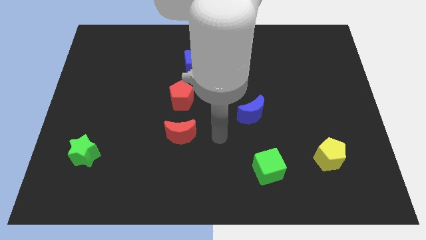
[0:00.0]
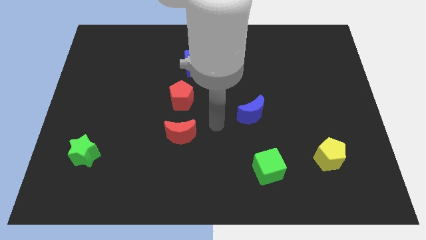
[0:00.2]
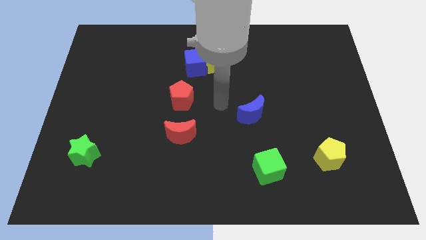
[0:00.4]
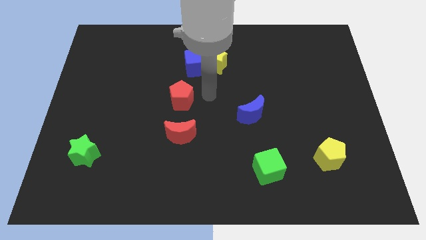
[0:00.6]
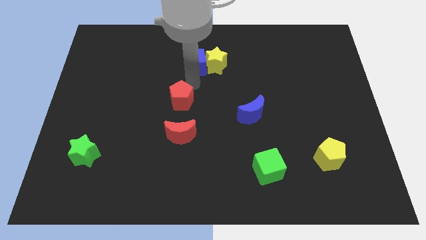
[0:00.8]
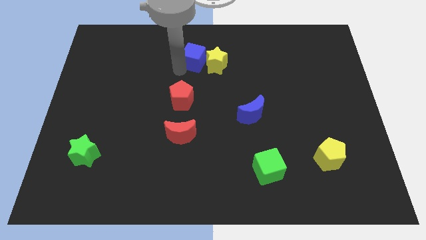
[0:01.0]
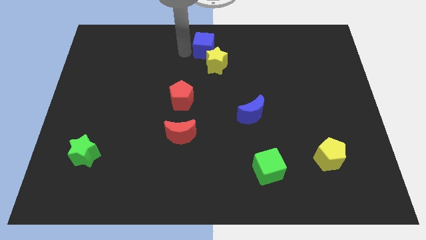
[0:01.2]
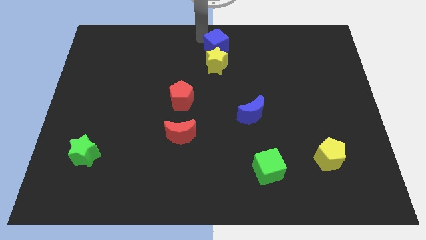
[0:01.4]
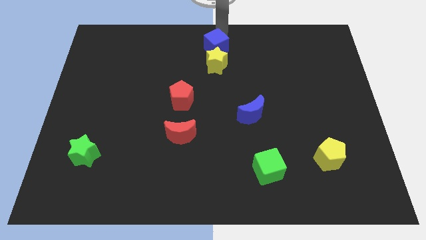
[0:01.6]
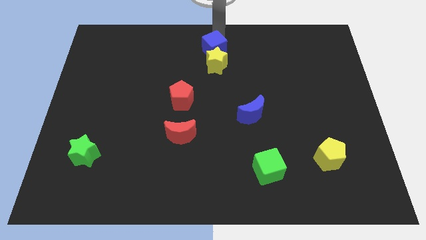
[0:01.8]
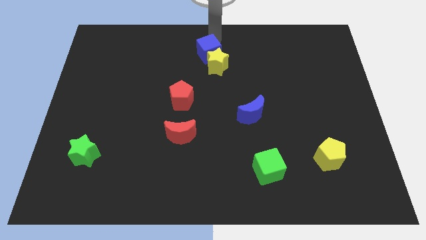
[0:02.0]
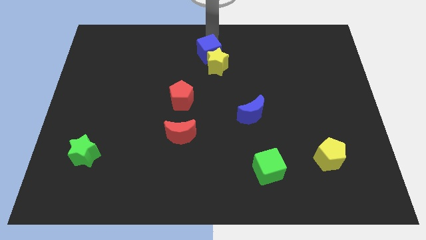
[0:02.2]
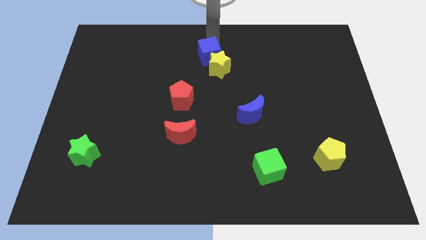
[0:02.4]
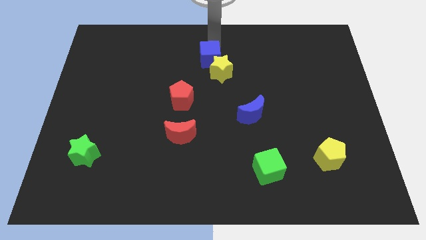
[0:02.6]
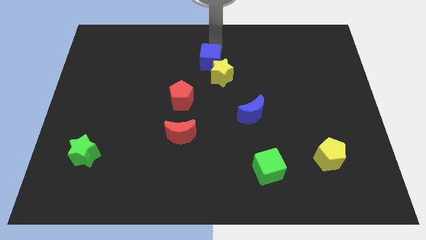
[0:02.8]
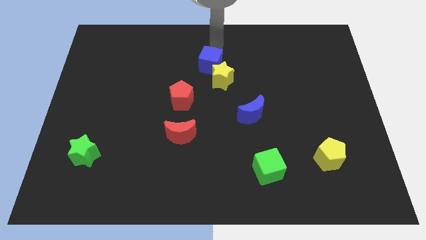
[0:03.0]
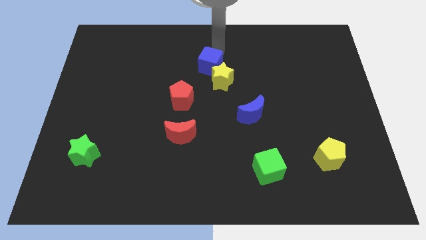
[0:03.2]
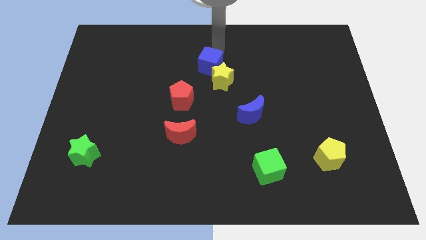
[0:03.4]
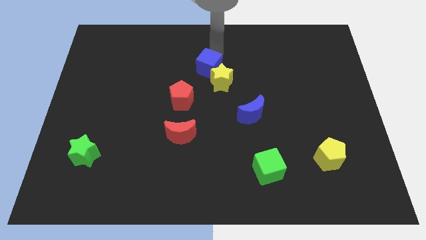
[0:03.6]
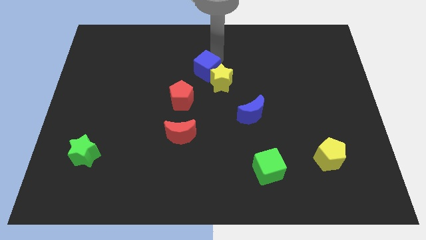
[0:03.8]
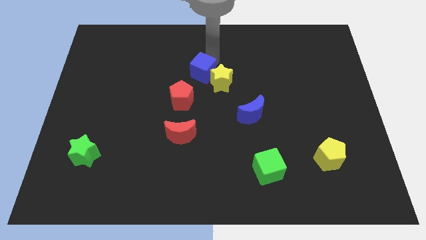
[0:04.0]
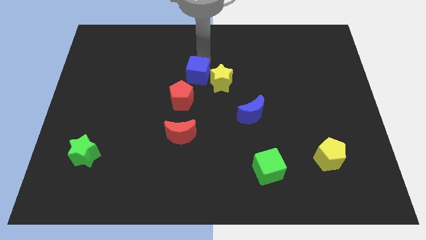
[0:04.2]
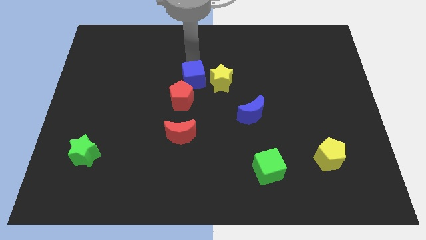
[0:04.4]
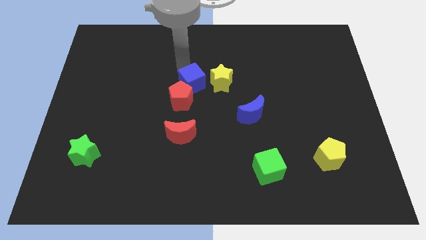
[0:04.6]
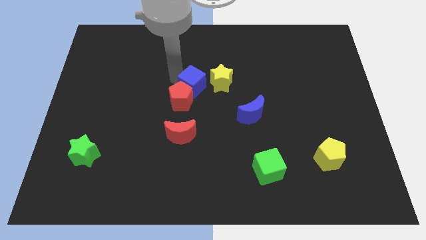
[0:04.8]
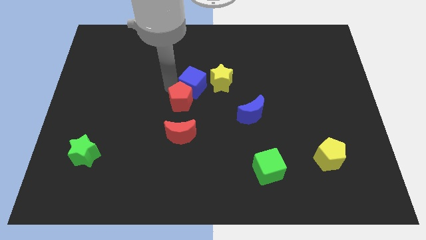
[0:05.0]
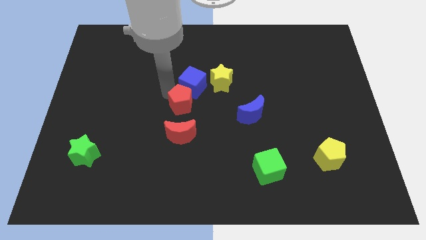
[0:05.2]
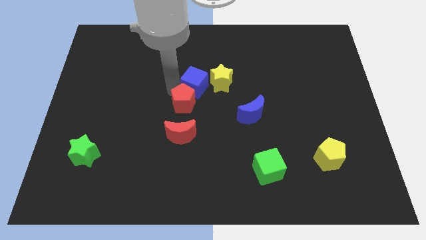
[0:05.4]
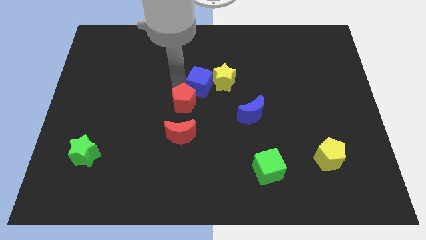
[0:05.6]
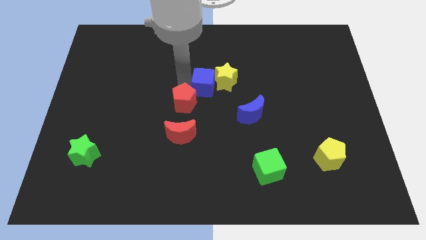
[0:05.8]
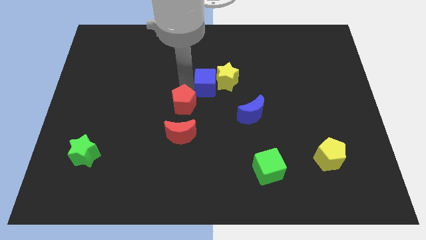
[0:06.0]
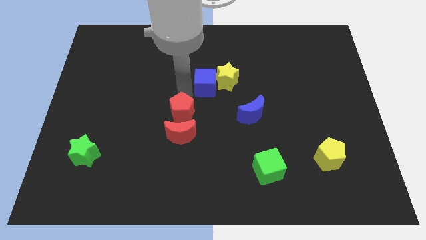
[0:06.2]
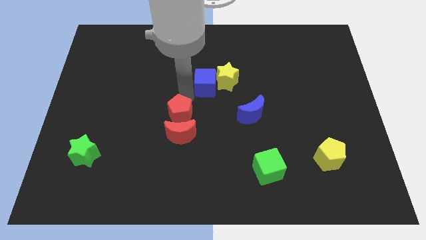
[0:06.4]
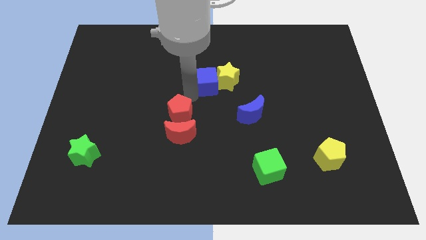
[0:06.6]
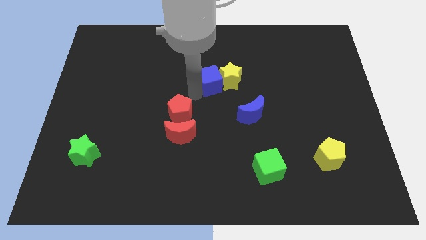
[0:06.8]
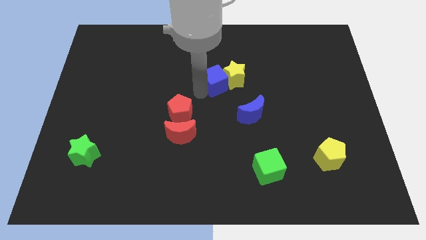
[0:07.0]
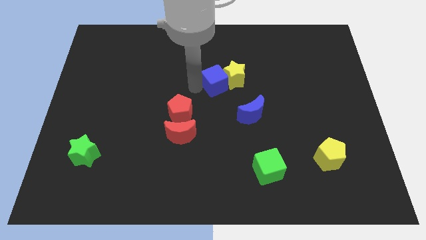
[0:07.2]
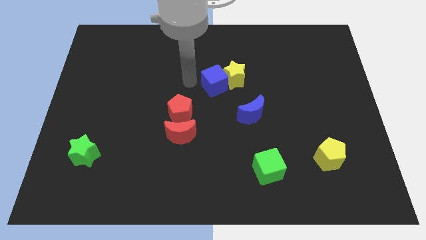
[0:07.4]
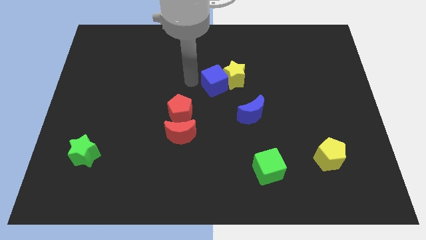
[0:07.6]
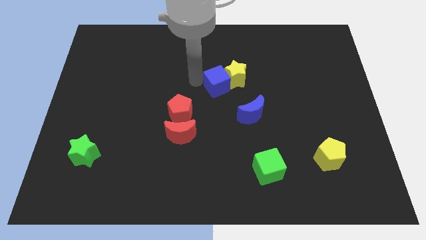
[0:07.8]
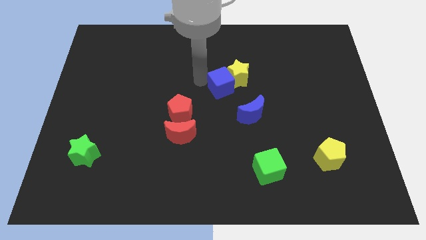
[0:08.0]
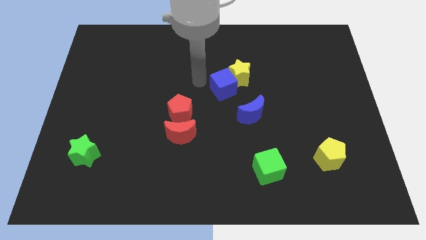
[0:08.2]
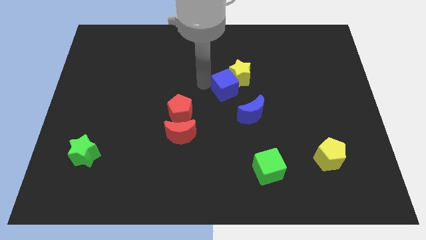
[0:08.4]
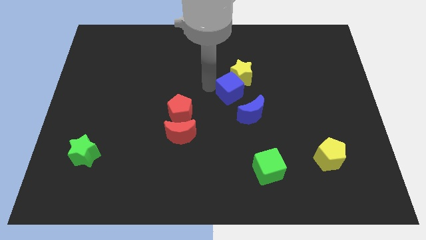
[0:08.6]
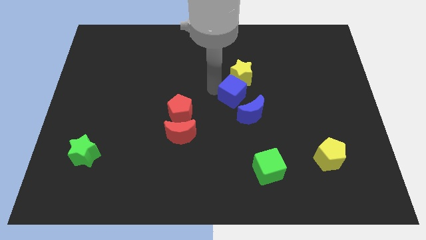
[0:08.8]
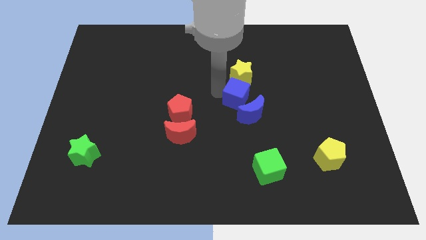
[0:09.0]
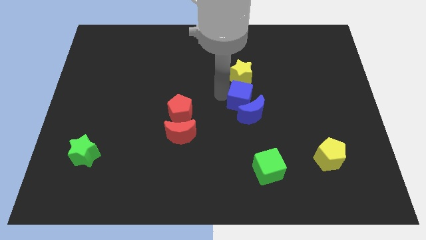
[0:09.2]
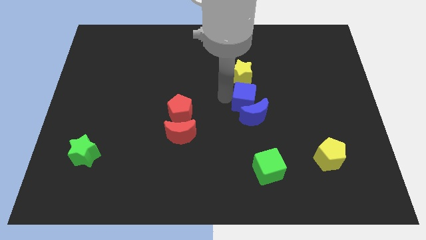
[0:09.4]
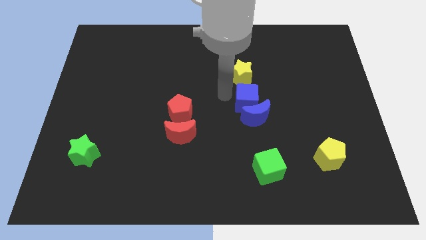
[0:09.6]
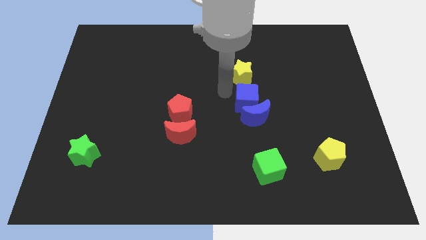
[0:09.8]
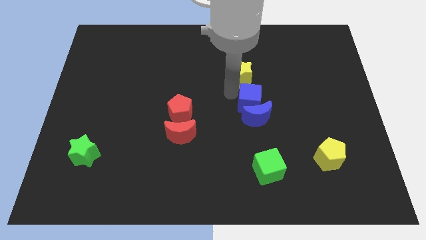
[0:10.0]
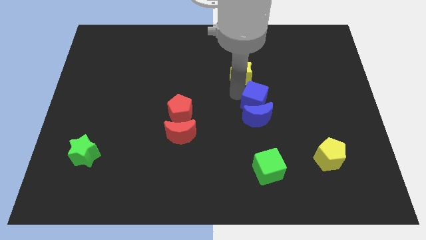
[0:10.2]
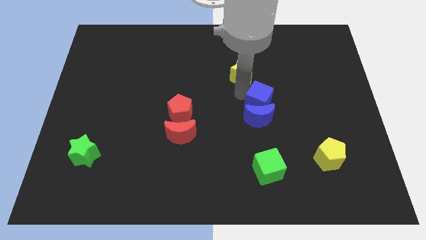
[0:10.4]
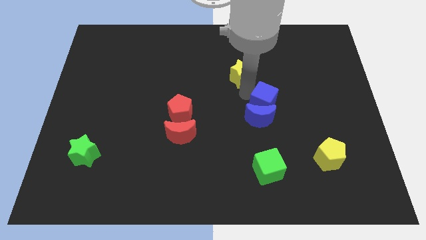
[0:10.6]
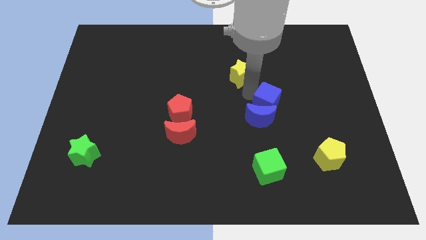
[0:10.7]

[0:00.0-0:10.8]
push the blue cube downwards and then right

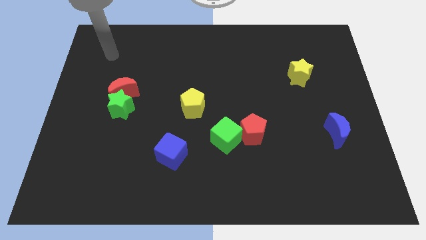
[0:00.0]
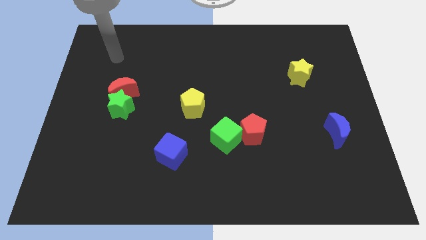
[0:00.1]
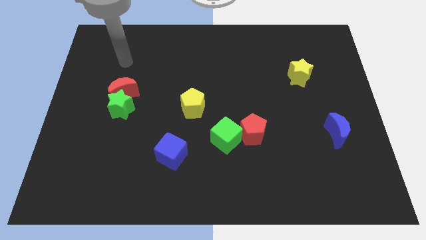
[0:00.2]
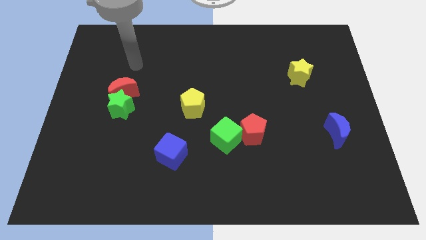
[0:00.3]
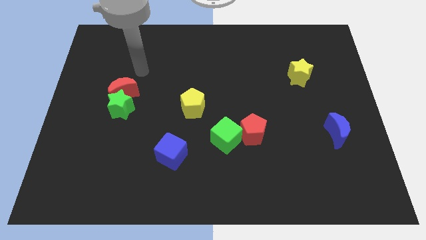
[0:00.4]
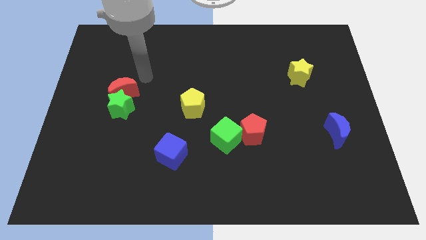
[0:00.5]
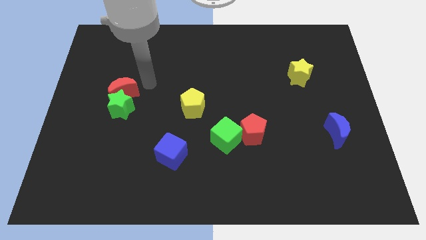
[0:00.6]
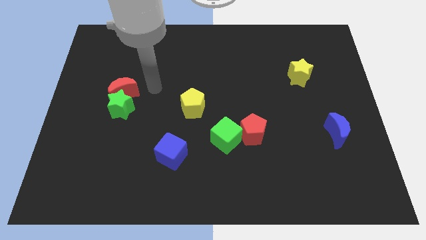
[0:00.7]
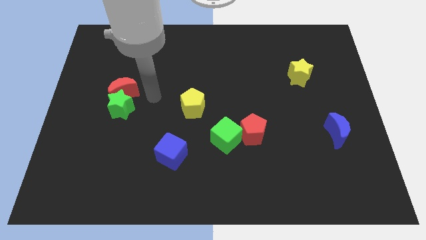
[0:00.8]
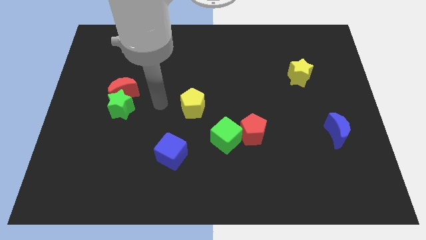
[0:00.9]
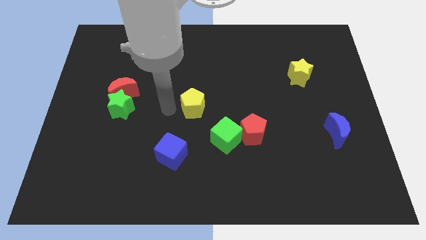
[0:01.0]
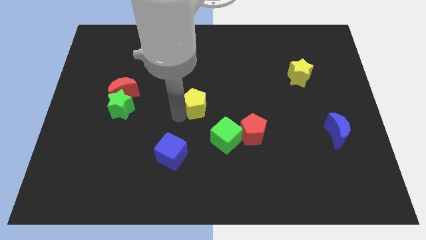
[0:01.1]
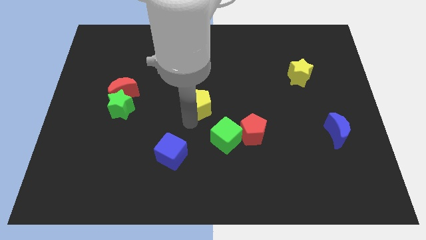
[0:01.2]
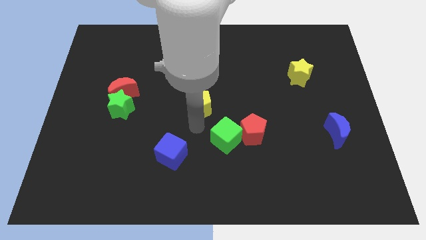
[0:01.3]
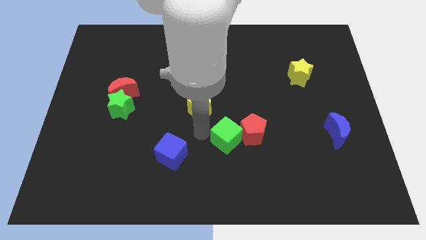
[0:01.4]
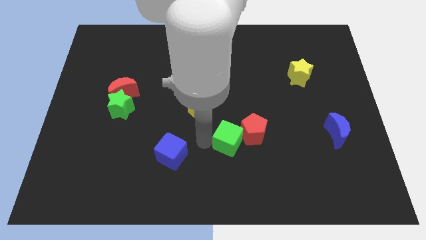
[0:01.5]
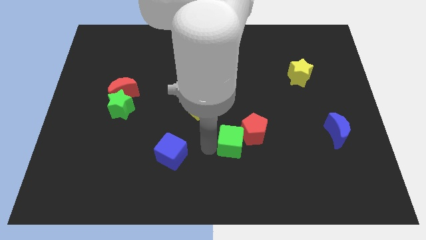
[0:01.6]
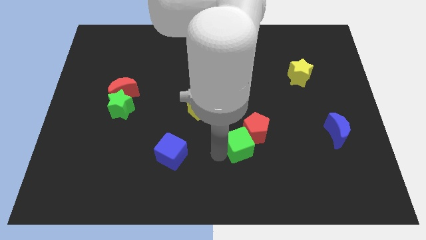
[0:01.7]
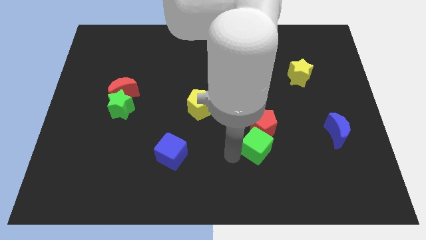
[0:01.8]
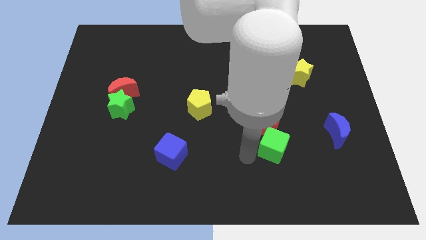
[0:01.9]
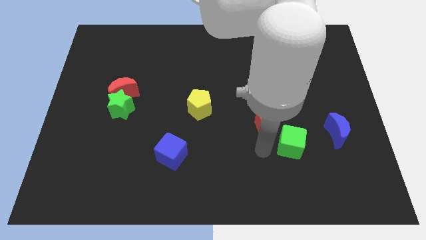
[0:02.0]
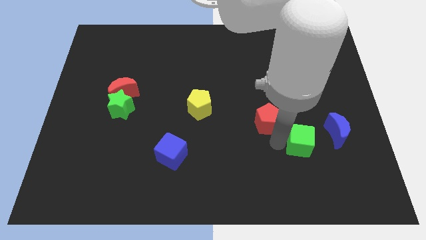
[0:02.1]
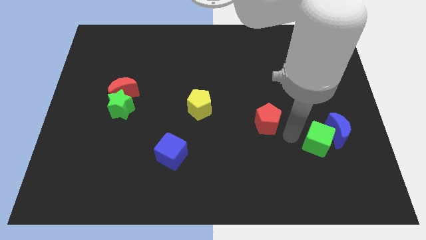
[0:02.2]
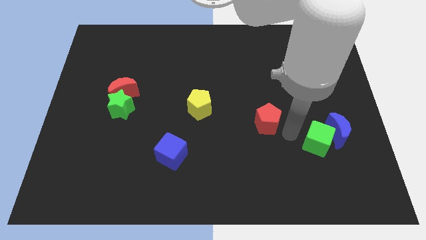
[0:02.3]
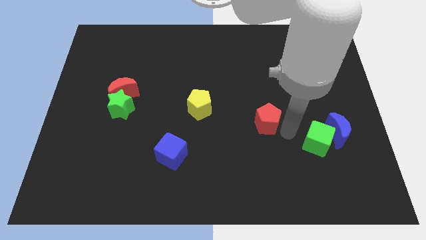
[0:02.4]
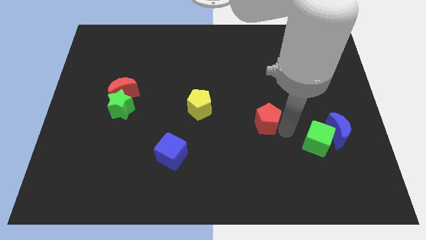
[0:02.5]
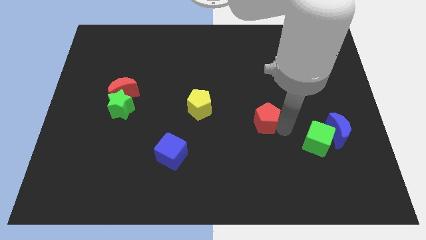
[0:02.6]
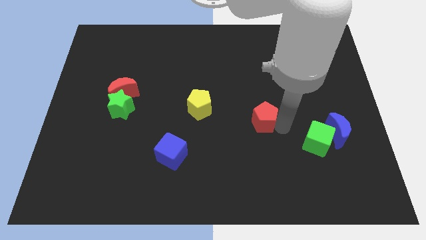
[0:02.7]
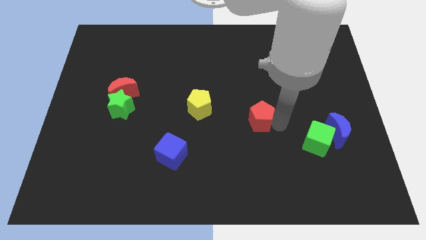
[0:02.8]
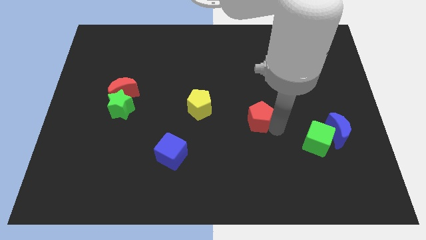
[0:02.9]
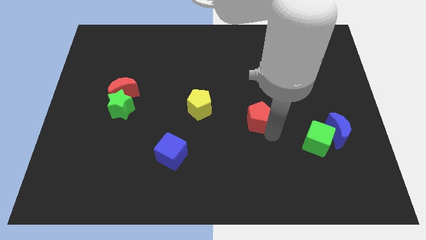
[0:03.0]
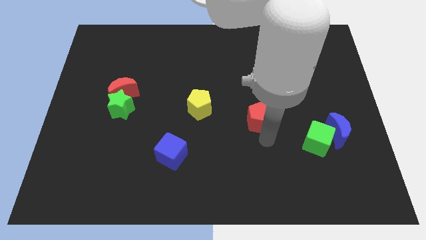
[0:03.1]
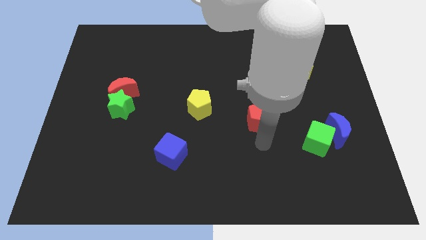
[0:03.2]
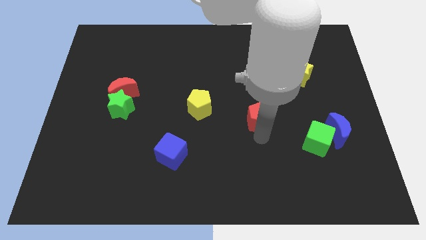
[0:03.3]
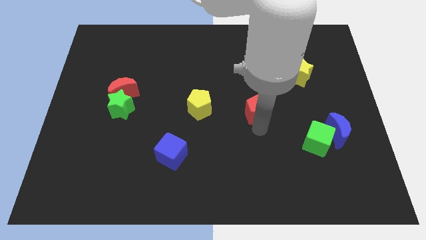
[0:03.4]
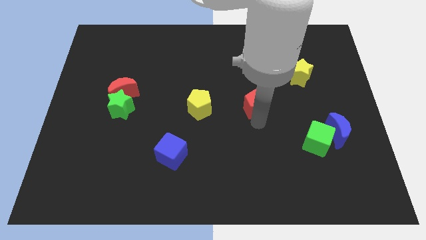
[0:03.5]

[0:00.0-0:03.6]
slightly push the red pentagon up
